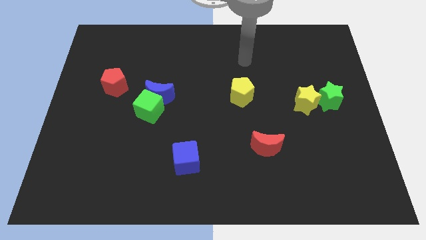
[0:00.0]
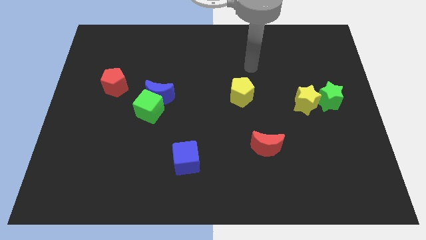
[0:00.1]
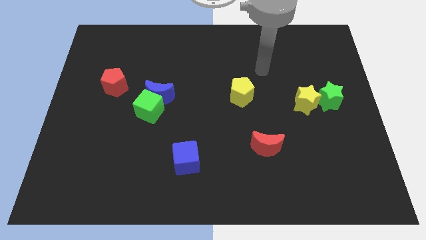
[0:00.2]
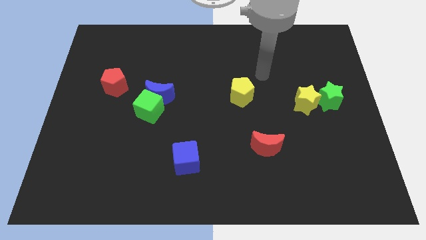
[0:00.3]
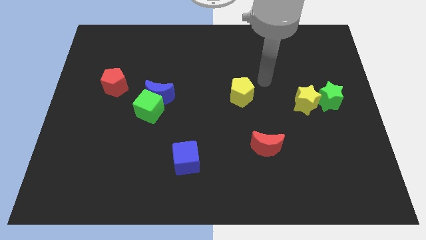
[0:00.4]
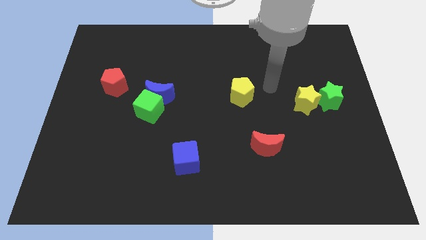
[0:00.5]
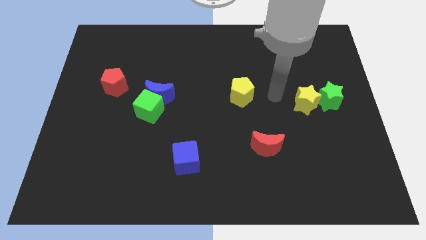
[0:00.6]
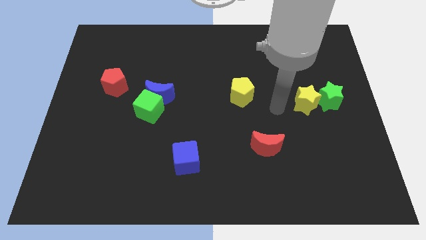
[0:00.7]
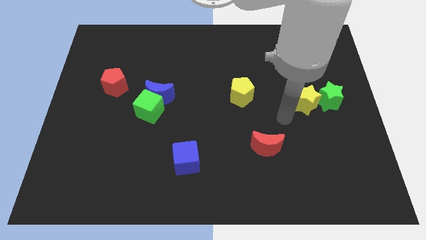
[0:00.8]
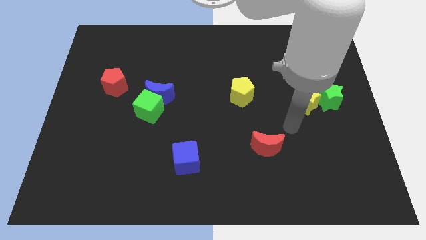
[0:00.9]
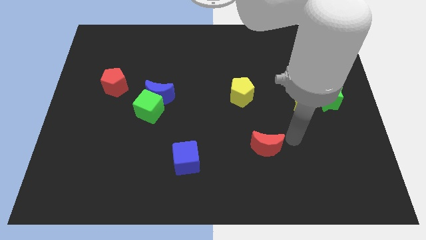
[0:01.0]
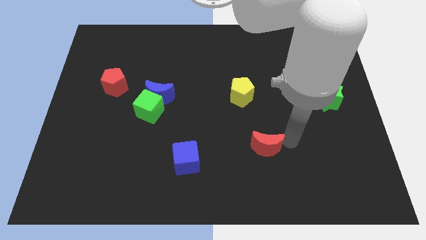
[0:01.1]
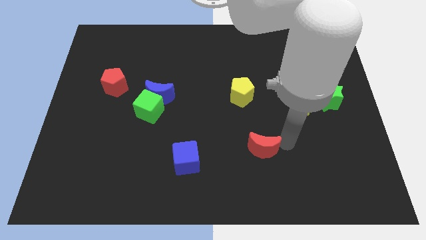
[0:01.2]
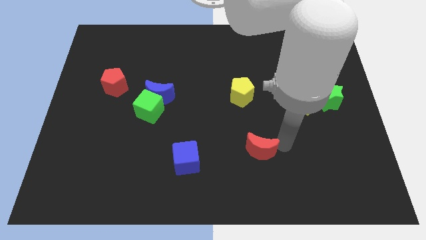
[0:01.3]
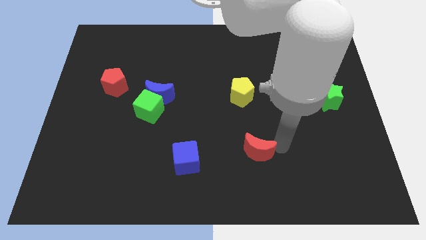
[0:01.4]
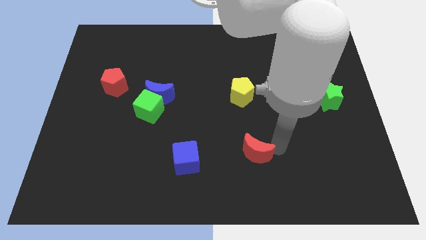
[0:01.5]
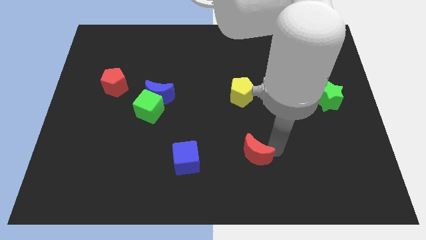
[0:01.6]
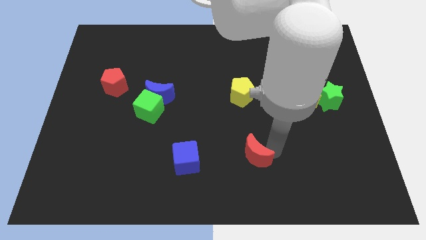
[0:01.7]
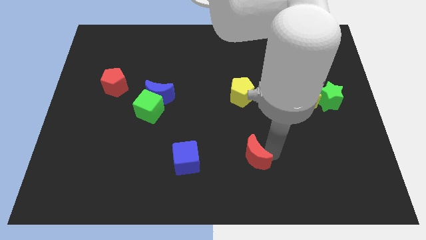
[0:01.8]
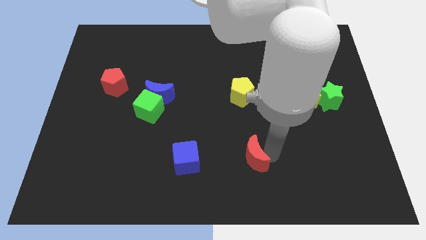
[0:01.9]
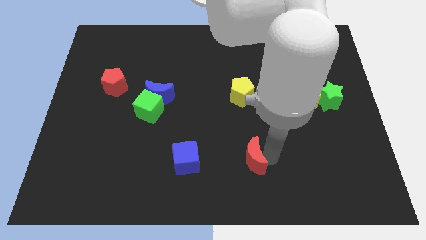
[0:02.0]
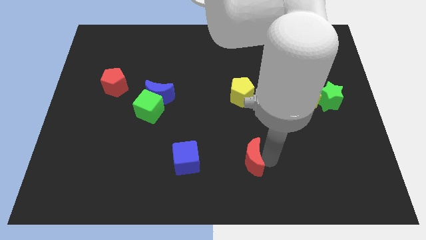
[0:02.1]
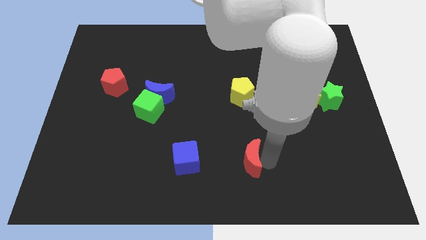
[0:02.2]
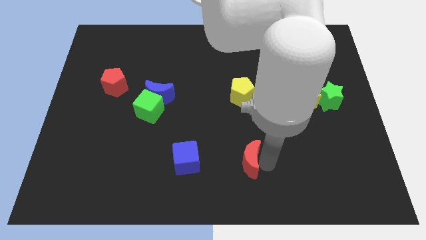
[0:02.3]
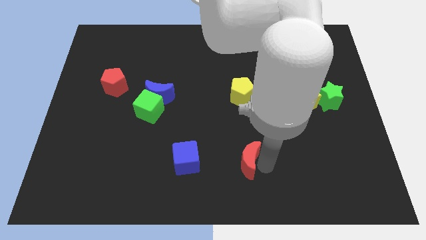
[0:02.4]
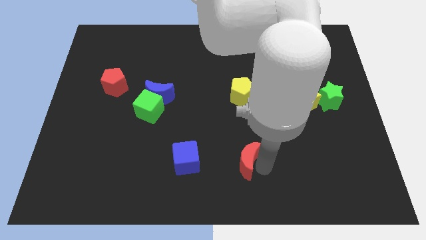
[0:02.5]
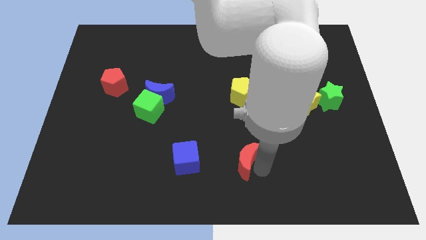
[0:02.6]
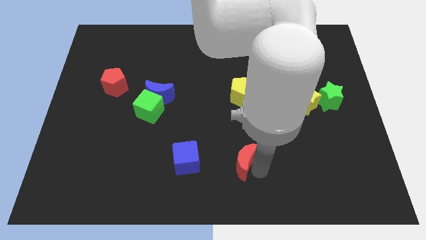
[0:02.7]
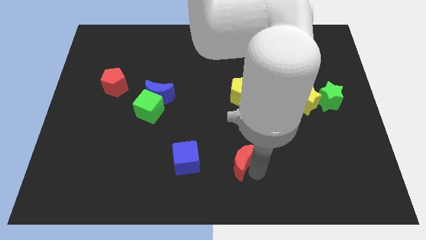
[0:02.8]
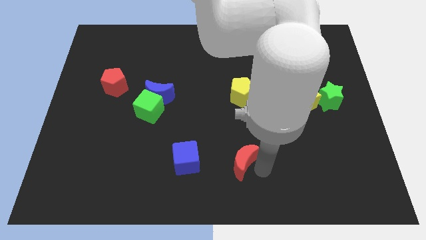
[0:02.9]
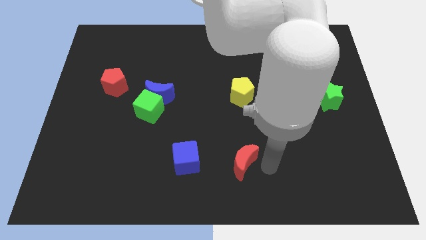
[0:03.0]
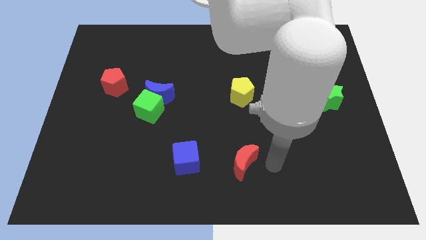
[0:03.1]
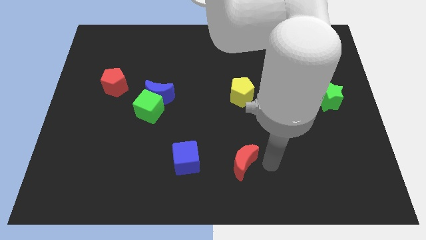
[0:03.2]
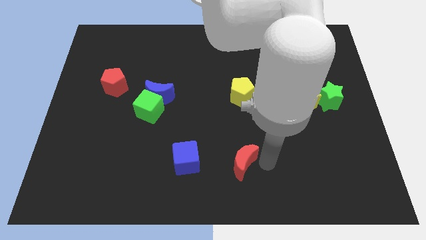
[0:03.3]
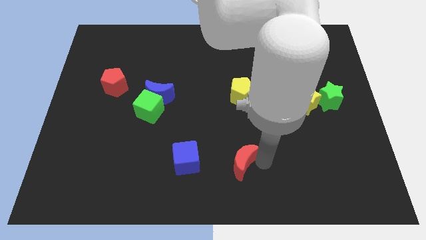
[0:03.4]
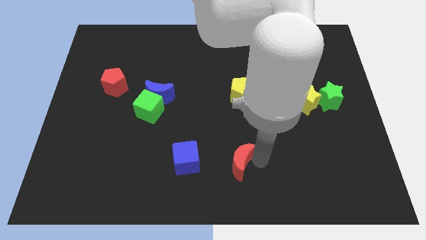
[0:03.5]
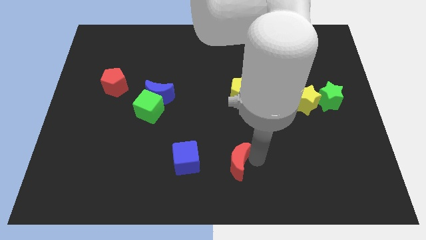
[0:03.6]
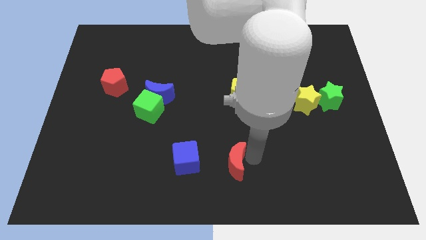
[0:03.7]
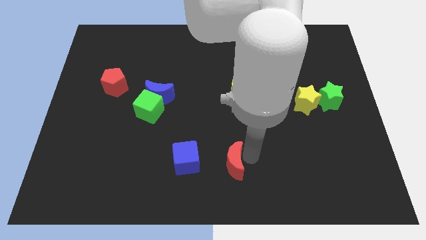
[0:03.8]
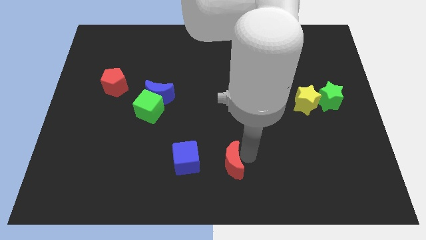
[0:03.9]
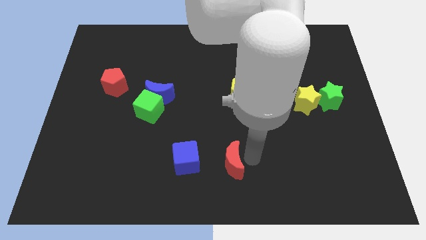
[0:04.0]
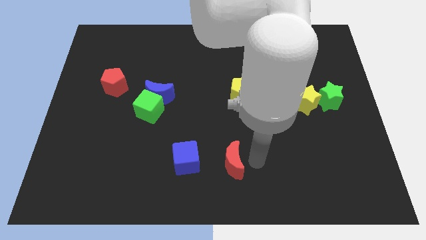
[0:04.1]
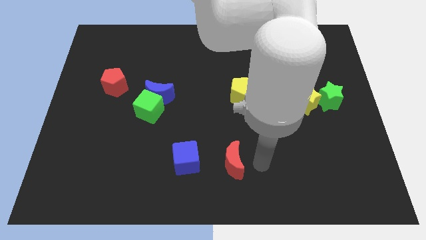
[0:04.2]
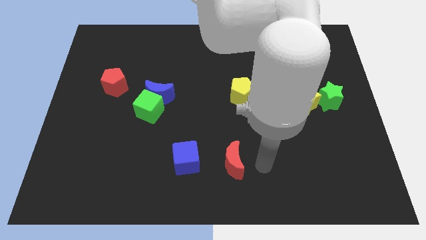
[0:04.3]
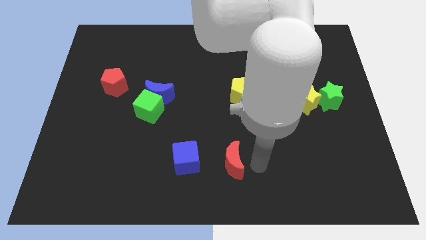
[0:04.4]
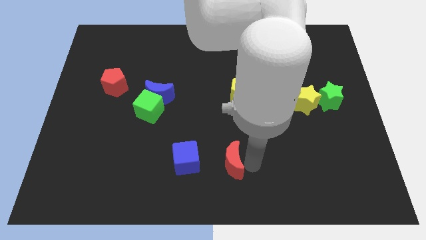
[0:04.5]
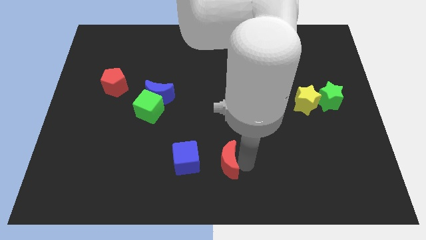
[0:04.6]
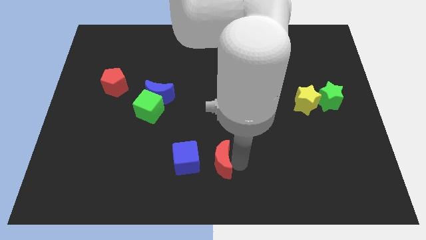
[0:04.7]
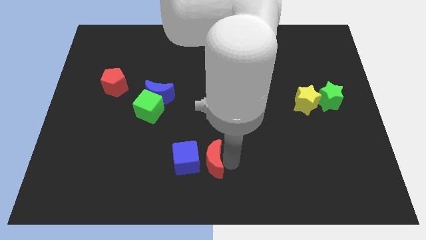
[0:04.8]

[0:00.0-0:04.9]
put the red moon towards the blue cube

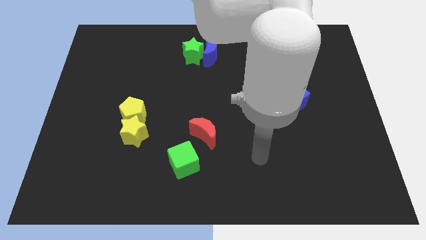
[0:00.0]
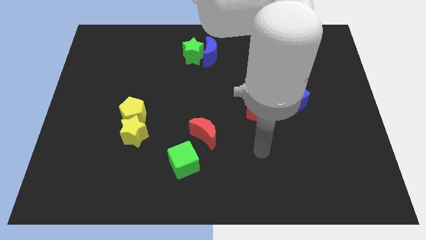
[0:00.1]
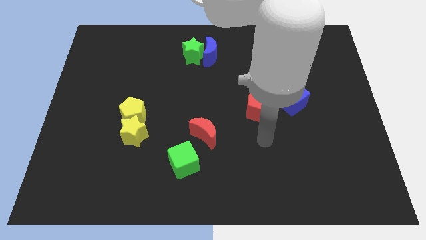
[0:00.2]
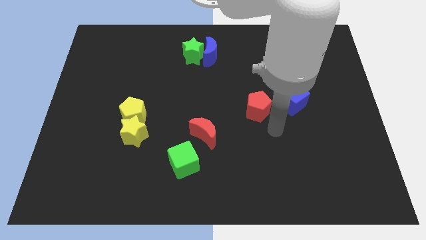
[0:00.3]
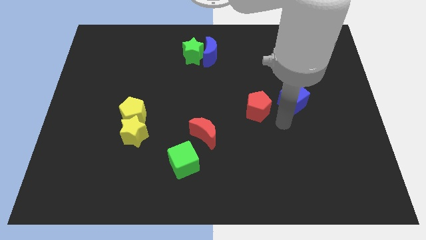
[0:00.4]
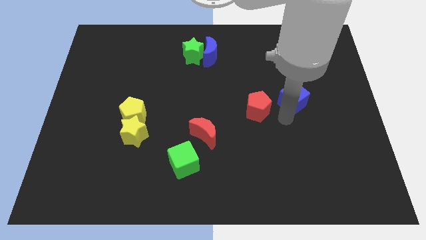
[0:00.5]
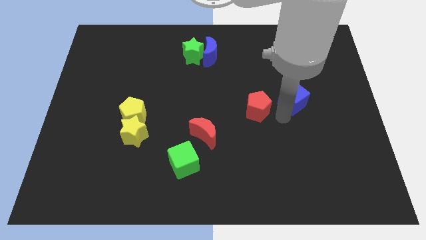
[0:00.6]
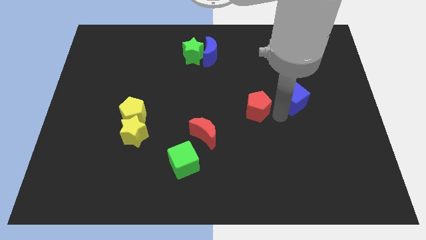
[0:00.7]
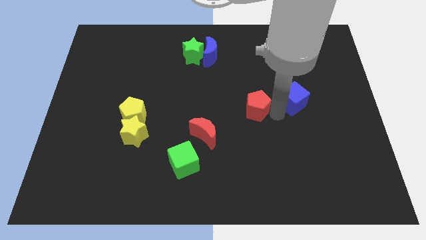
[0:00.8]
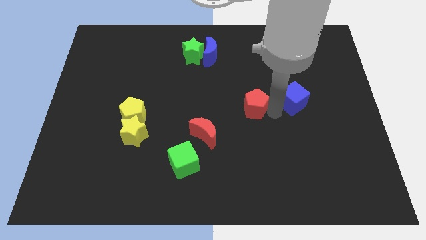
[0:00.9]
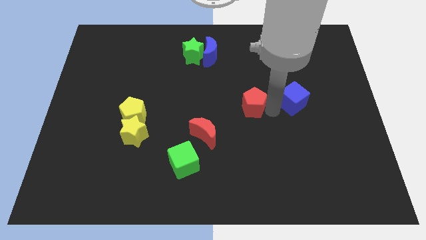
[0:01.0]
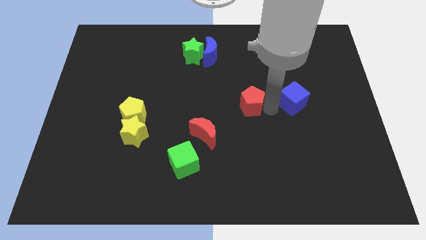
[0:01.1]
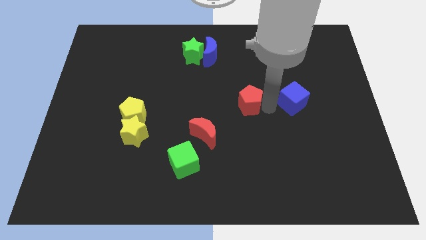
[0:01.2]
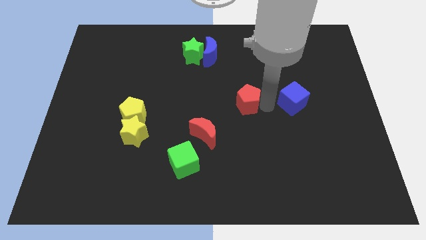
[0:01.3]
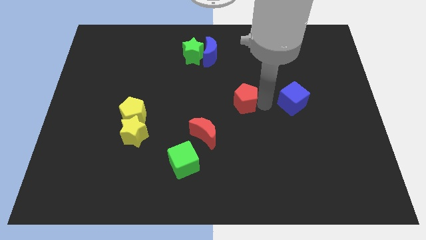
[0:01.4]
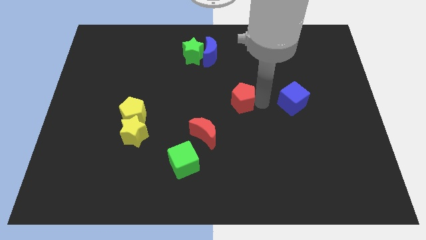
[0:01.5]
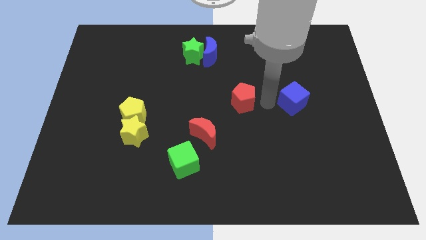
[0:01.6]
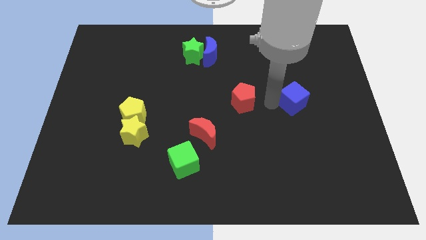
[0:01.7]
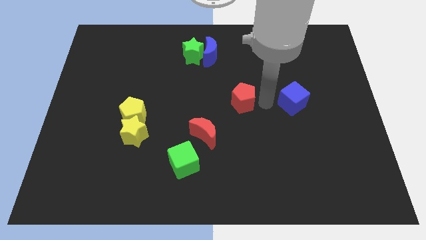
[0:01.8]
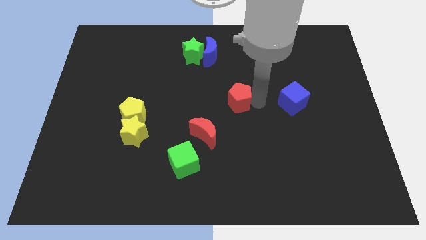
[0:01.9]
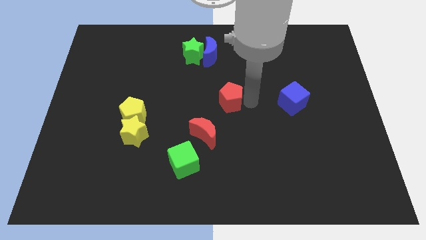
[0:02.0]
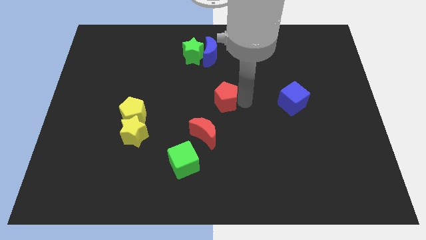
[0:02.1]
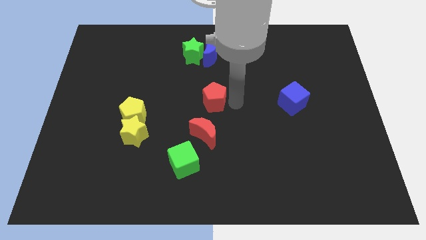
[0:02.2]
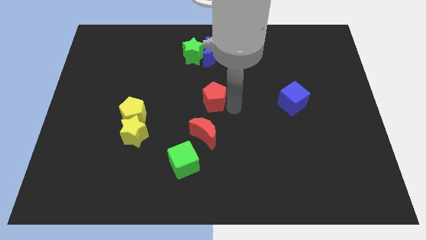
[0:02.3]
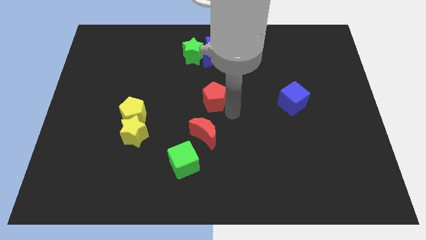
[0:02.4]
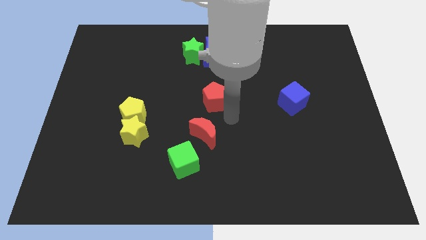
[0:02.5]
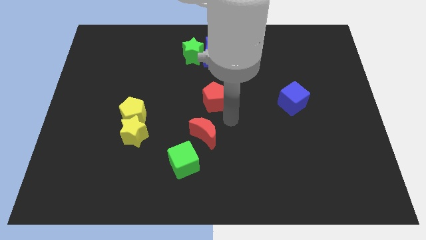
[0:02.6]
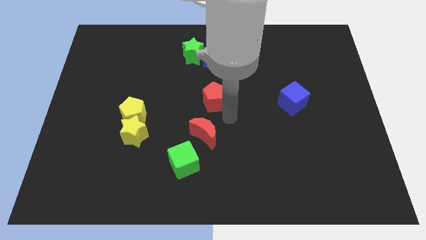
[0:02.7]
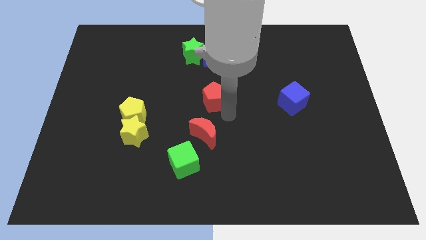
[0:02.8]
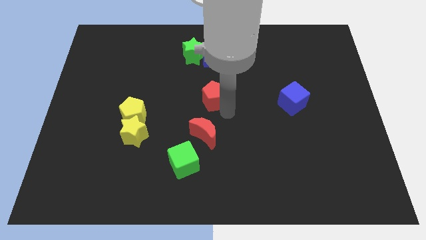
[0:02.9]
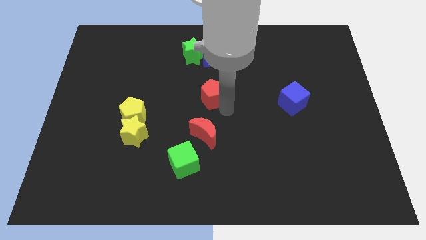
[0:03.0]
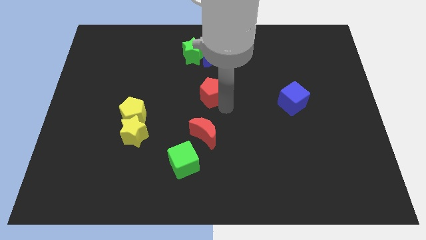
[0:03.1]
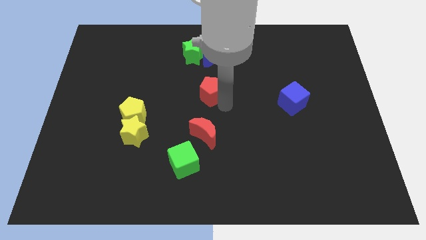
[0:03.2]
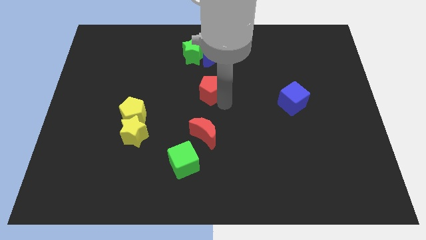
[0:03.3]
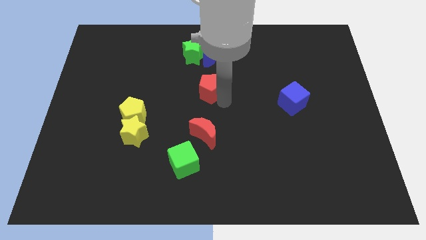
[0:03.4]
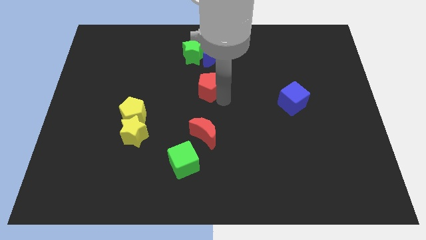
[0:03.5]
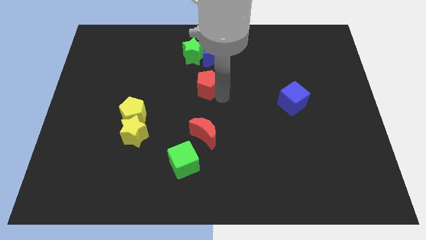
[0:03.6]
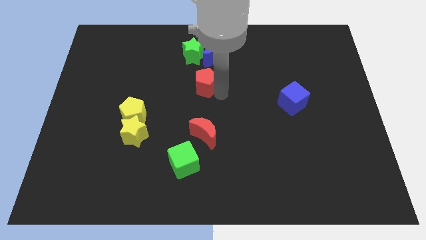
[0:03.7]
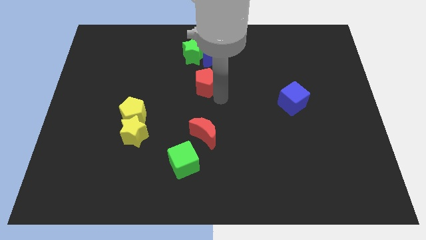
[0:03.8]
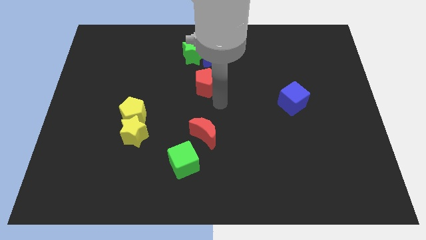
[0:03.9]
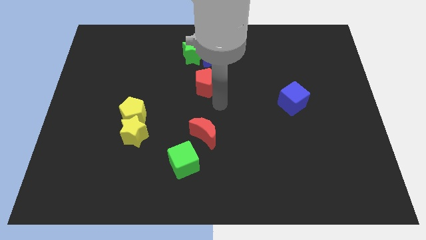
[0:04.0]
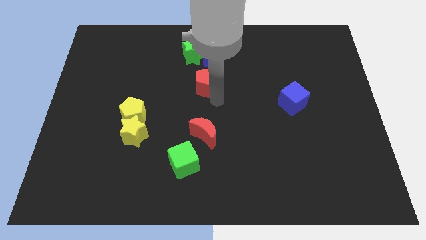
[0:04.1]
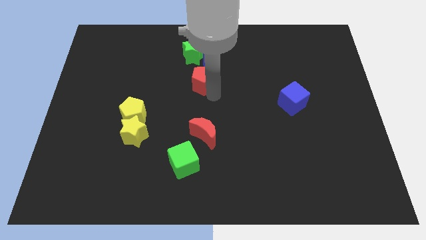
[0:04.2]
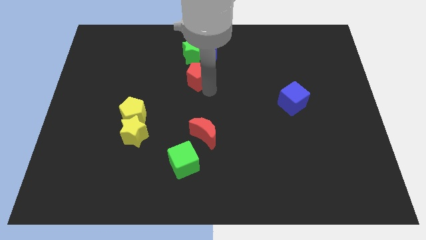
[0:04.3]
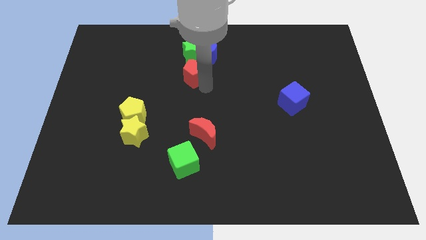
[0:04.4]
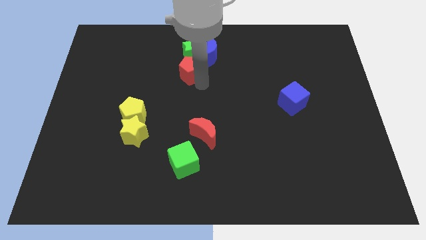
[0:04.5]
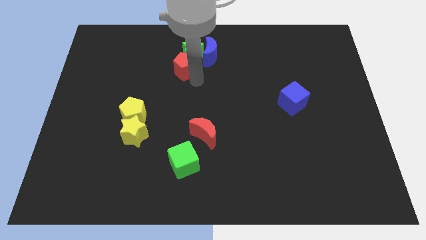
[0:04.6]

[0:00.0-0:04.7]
push the red pentagon close to the green star
